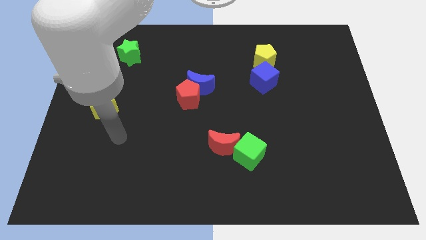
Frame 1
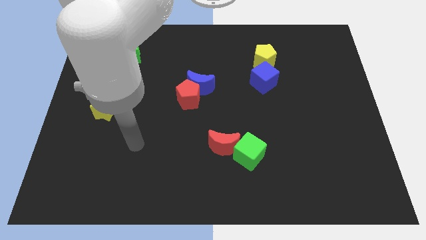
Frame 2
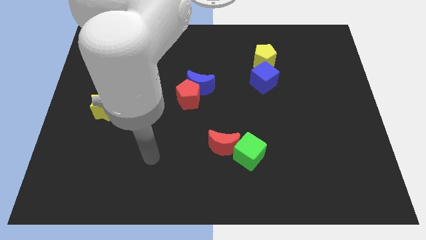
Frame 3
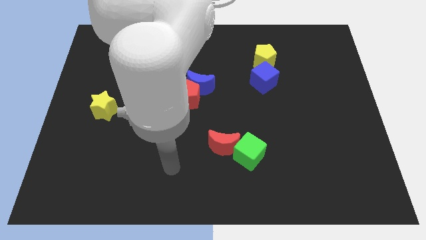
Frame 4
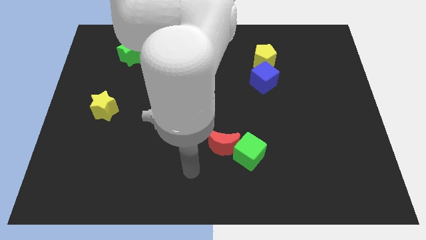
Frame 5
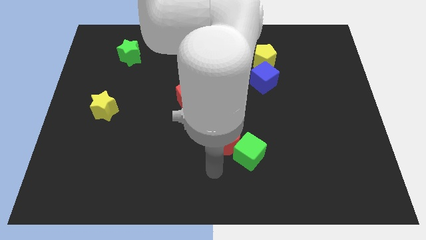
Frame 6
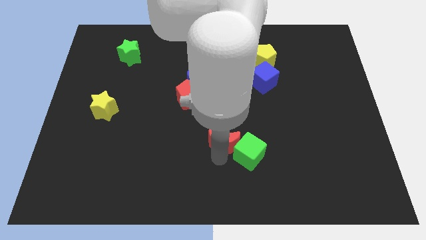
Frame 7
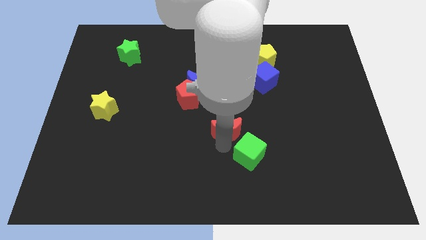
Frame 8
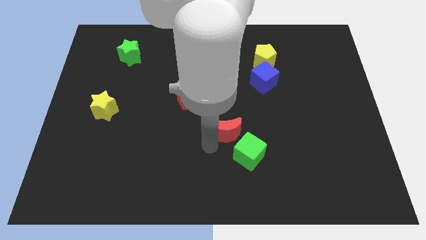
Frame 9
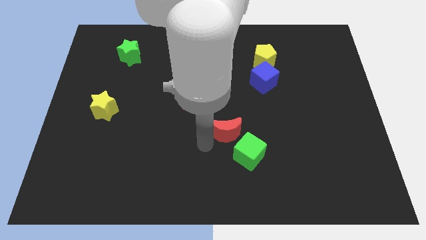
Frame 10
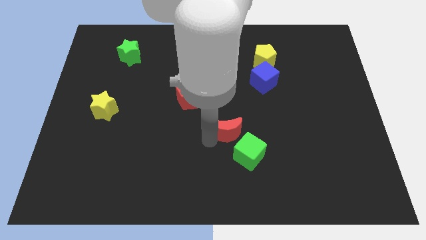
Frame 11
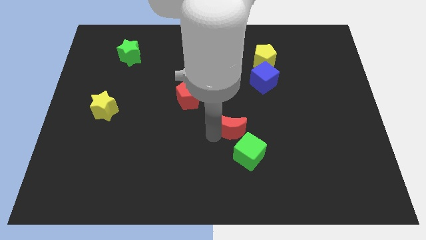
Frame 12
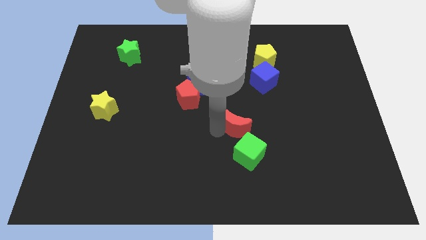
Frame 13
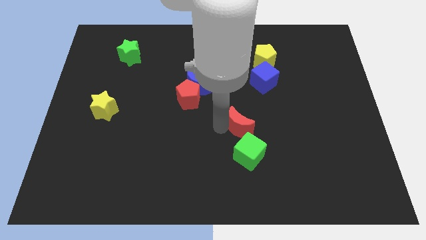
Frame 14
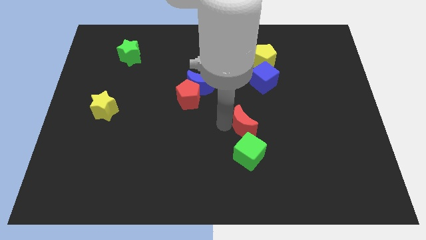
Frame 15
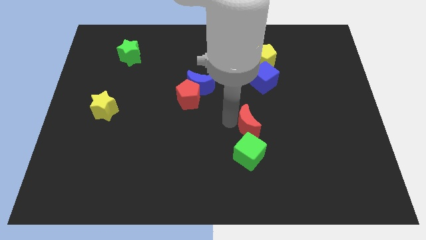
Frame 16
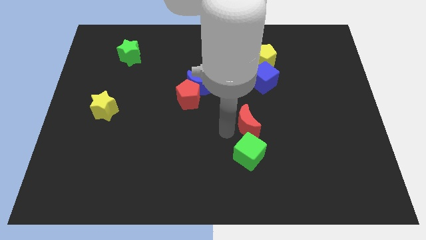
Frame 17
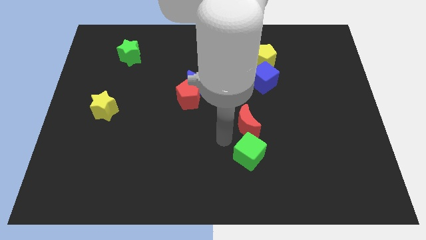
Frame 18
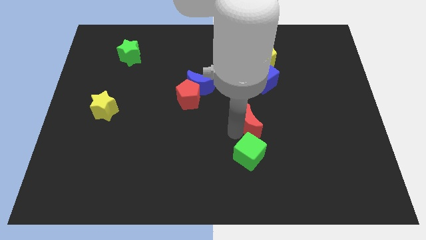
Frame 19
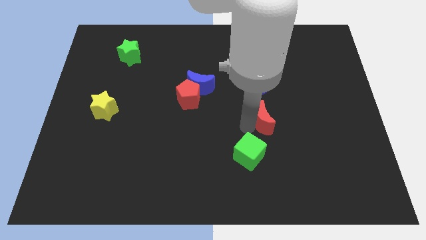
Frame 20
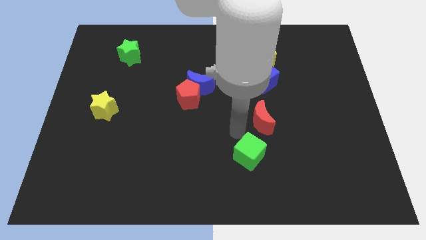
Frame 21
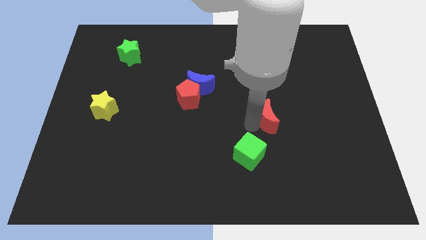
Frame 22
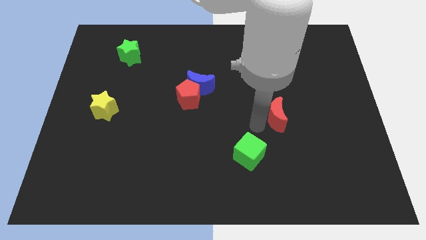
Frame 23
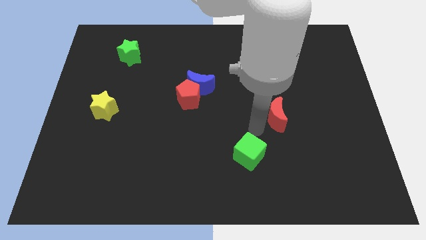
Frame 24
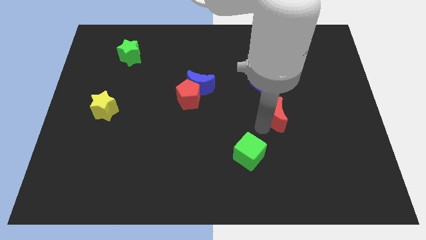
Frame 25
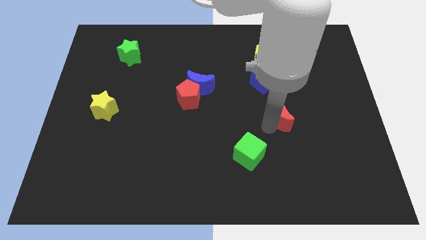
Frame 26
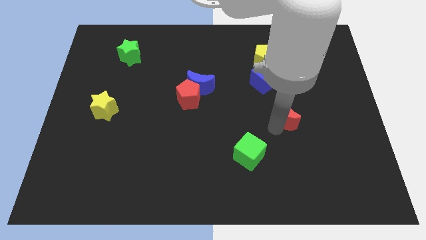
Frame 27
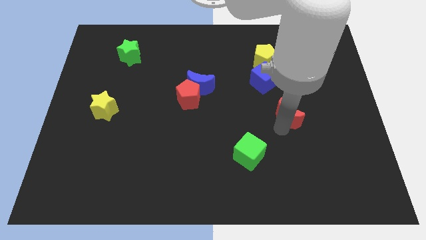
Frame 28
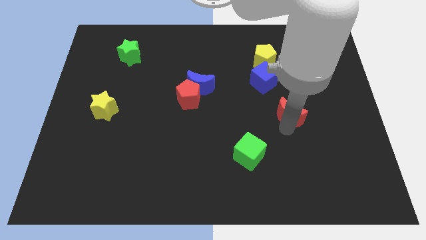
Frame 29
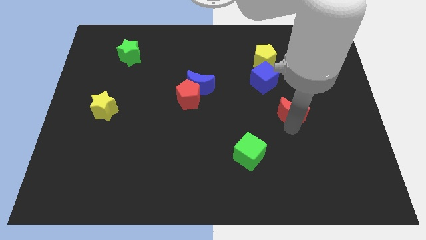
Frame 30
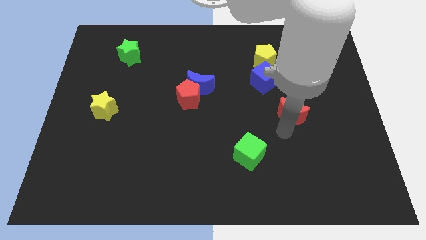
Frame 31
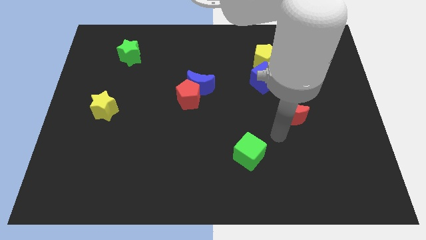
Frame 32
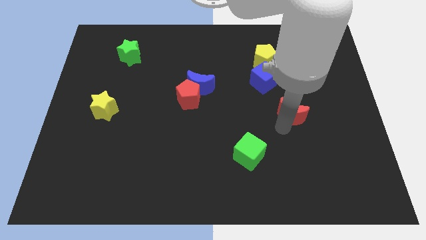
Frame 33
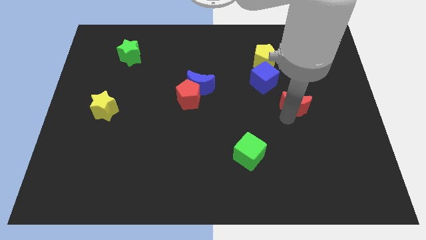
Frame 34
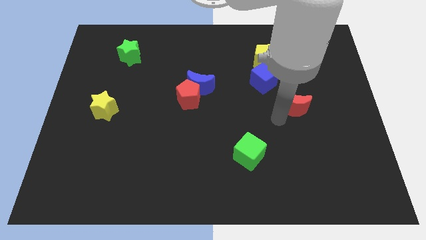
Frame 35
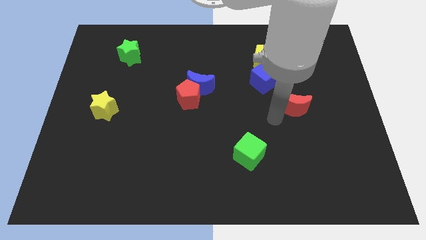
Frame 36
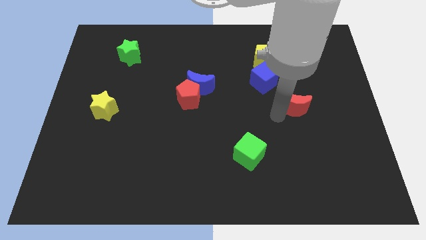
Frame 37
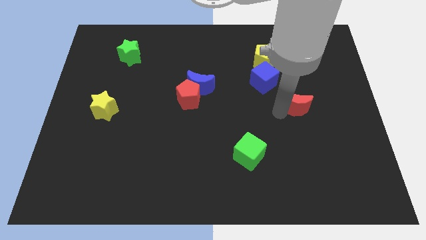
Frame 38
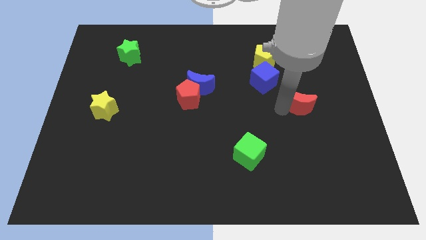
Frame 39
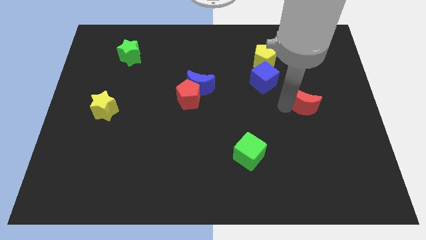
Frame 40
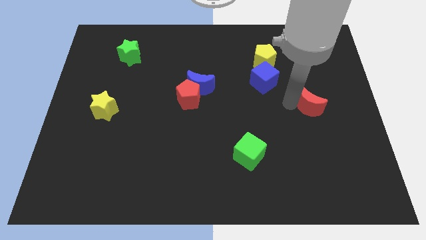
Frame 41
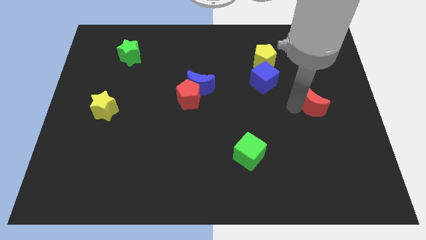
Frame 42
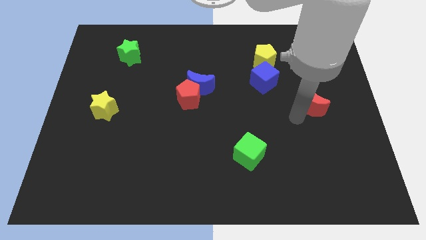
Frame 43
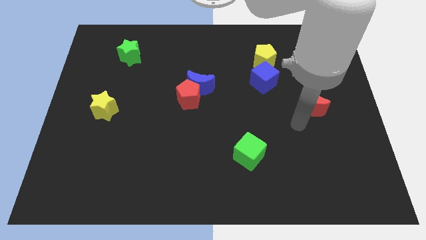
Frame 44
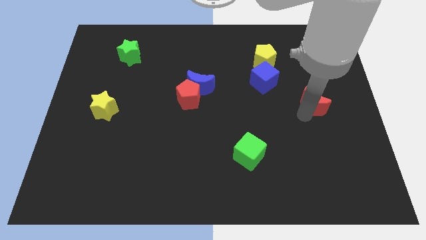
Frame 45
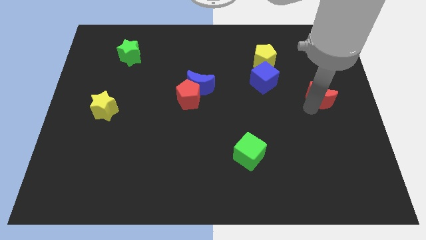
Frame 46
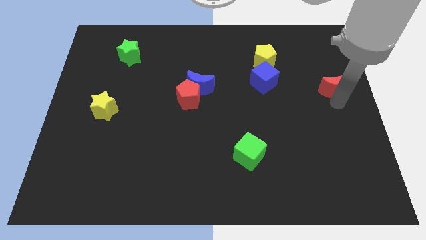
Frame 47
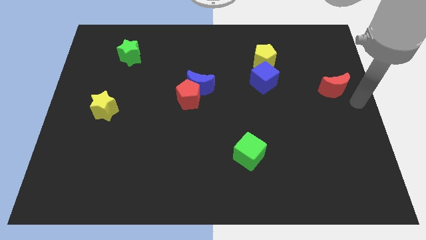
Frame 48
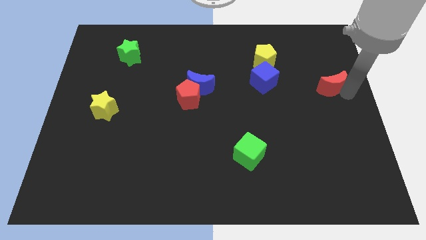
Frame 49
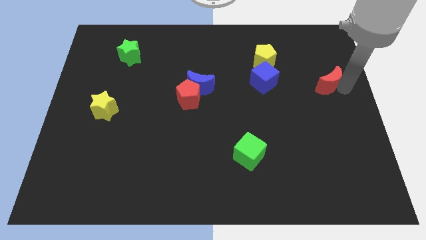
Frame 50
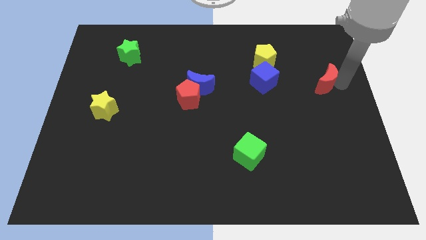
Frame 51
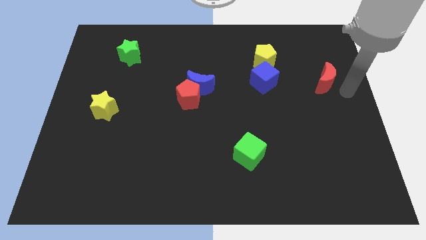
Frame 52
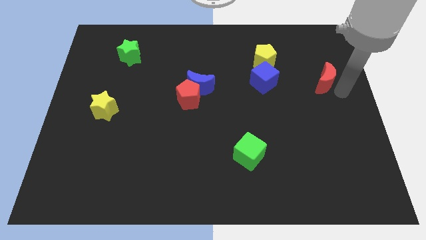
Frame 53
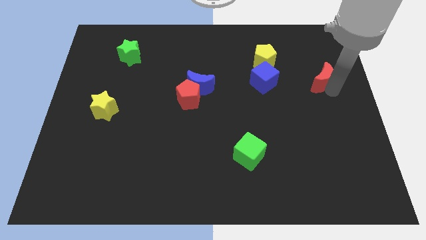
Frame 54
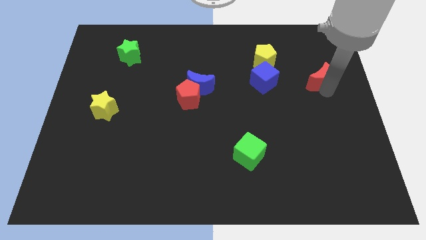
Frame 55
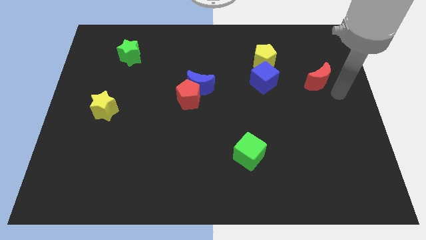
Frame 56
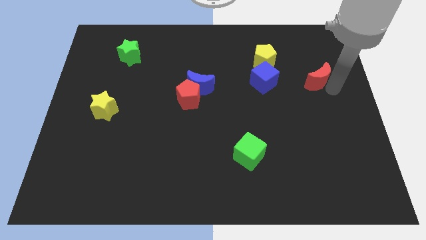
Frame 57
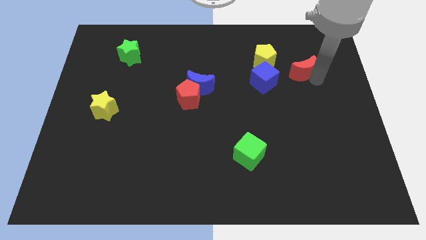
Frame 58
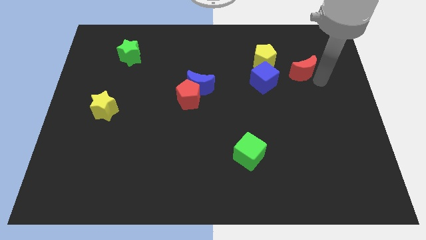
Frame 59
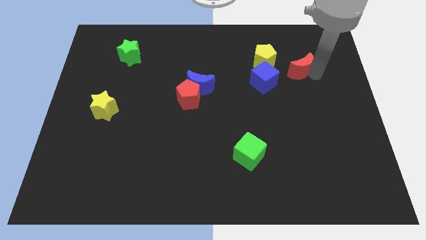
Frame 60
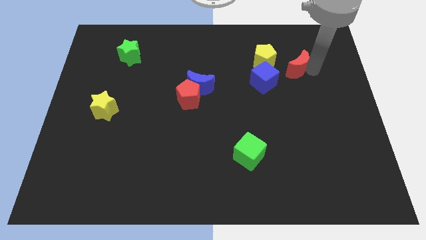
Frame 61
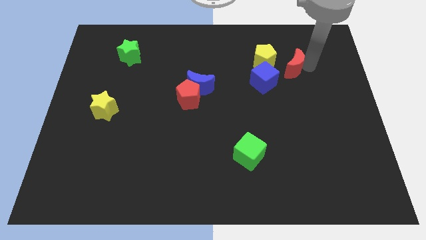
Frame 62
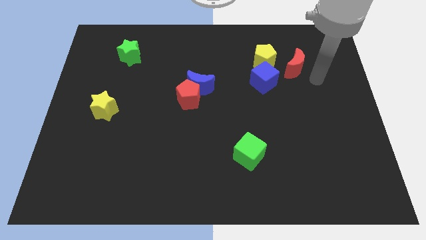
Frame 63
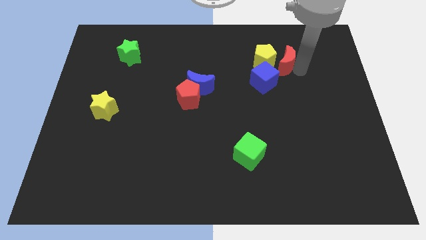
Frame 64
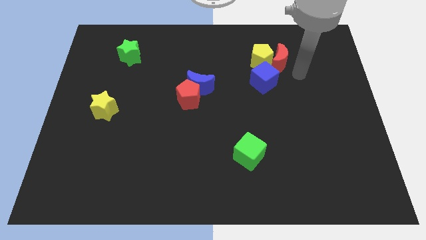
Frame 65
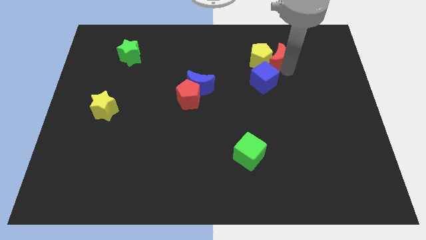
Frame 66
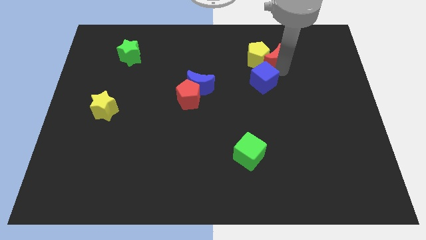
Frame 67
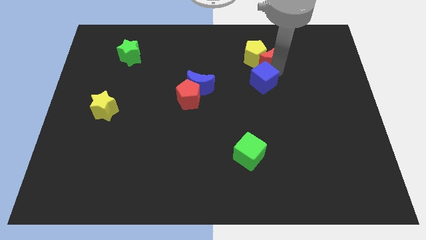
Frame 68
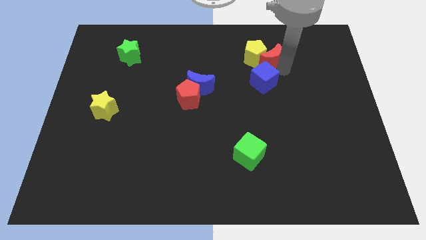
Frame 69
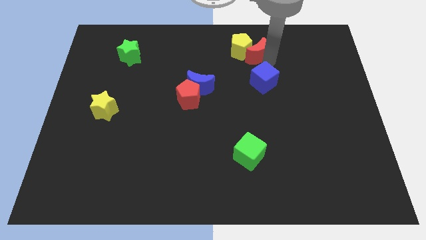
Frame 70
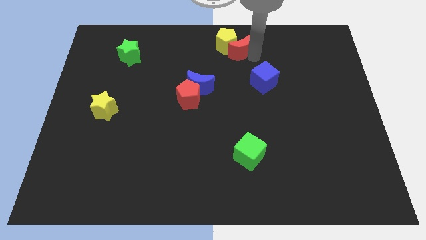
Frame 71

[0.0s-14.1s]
push the red moon to the top
